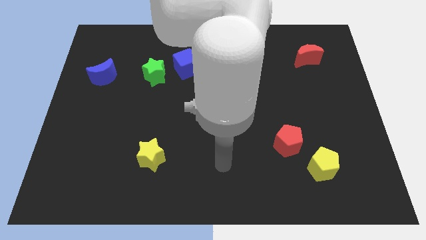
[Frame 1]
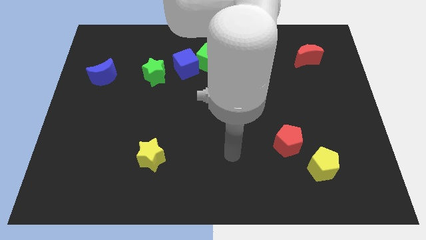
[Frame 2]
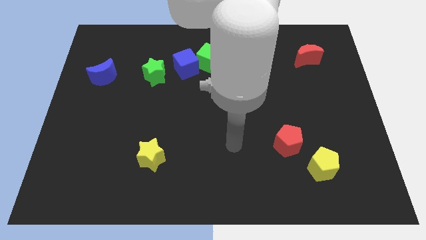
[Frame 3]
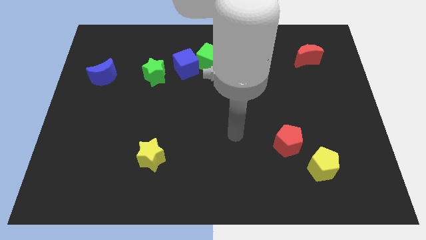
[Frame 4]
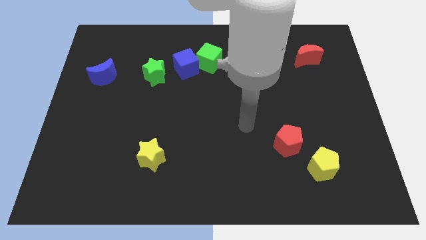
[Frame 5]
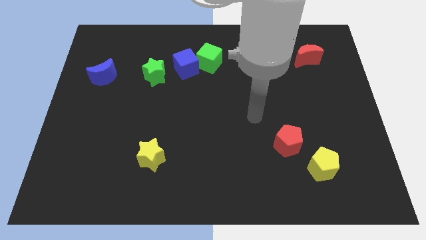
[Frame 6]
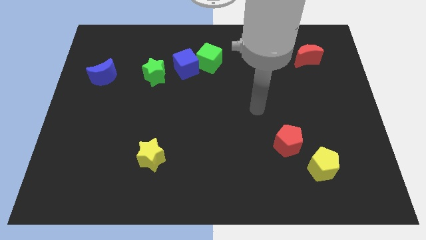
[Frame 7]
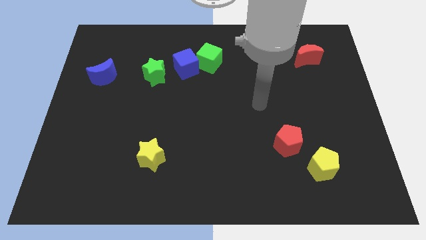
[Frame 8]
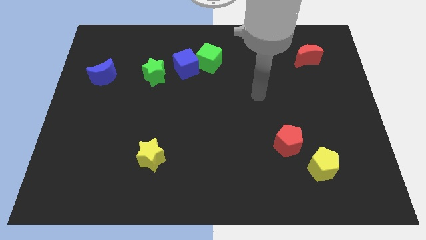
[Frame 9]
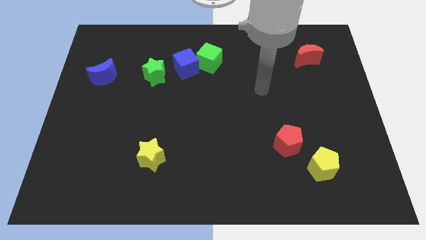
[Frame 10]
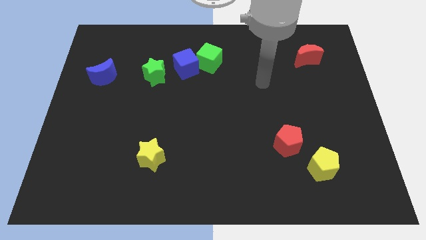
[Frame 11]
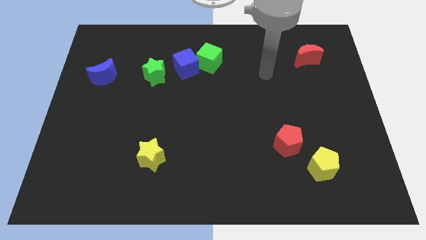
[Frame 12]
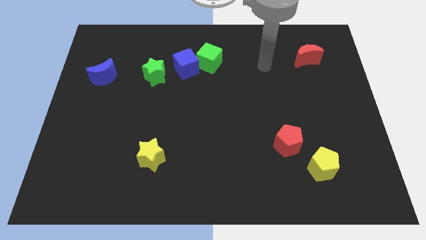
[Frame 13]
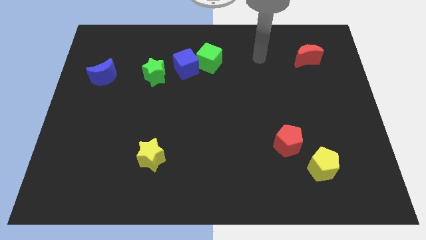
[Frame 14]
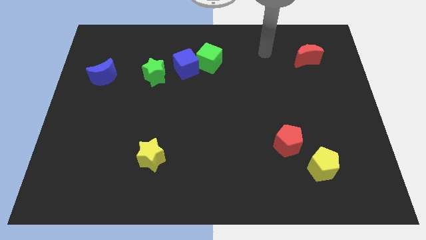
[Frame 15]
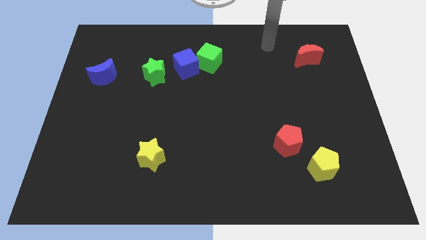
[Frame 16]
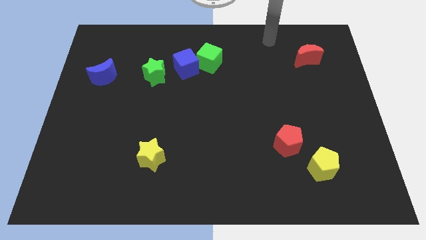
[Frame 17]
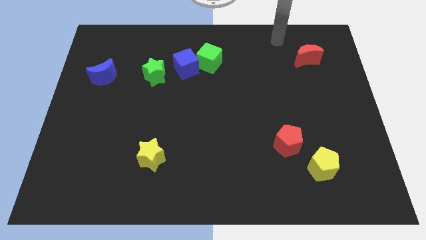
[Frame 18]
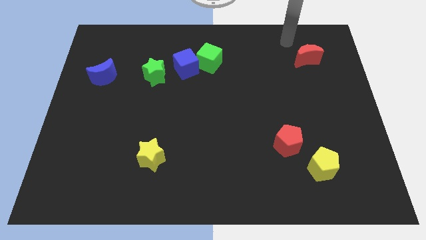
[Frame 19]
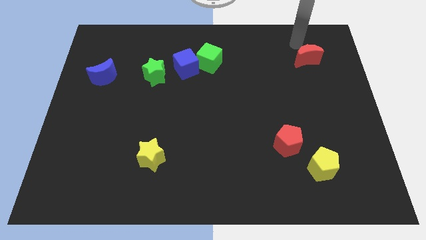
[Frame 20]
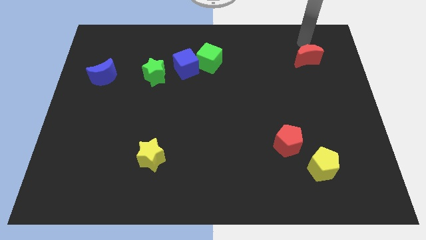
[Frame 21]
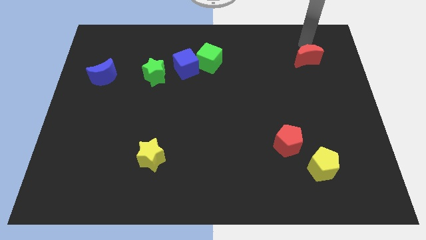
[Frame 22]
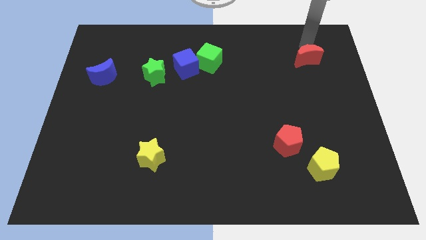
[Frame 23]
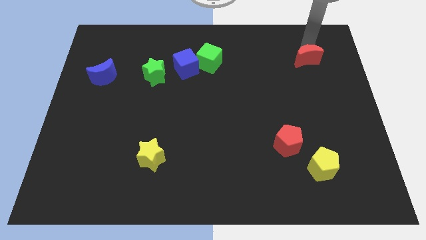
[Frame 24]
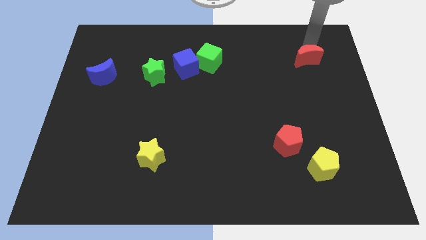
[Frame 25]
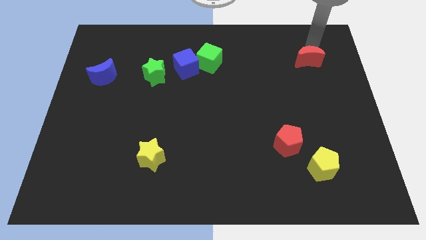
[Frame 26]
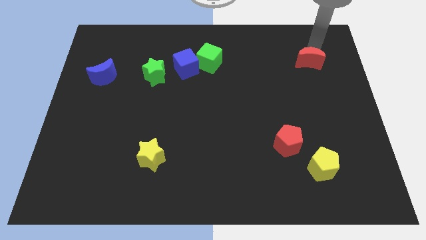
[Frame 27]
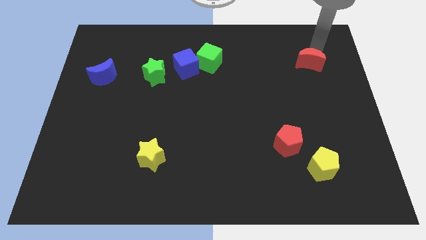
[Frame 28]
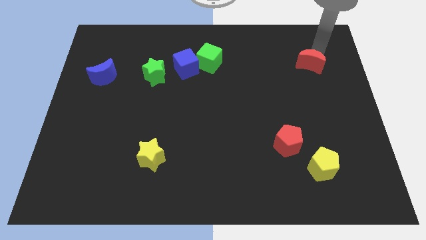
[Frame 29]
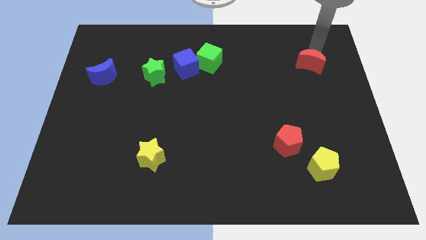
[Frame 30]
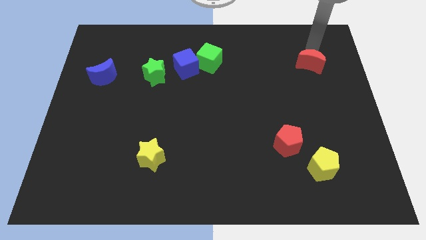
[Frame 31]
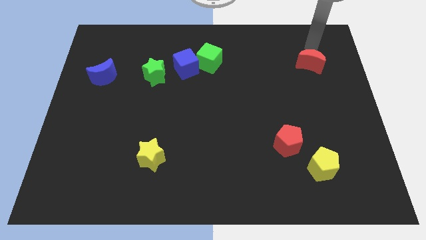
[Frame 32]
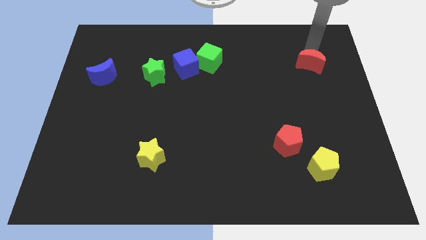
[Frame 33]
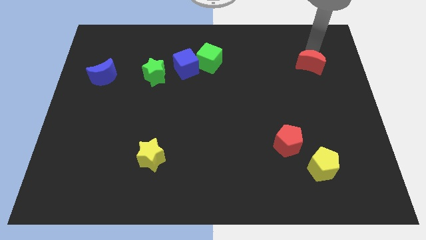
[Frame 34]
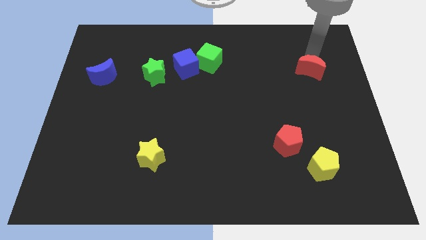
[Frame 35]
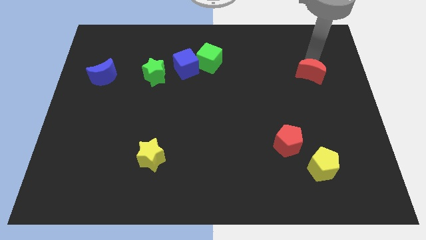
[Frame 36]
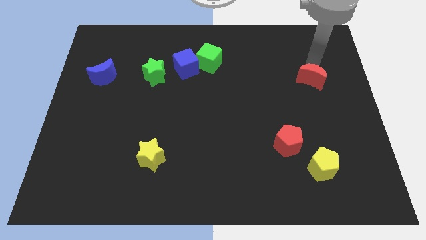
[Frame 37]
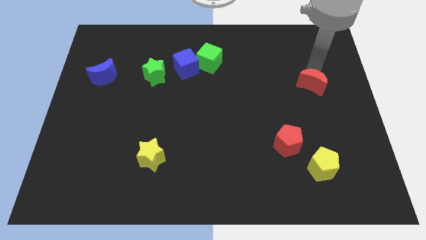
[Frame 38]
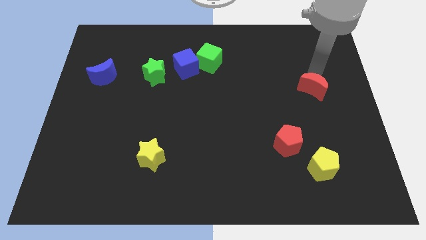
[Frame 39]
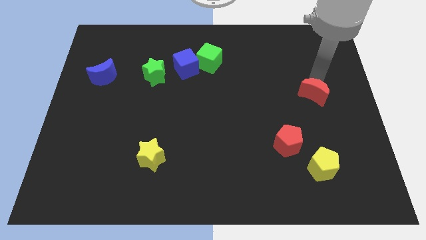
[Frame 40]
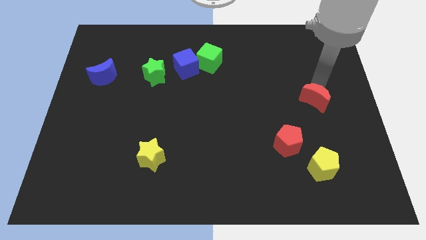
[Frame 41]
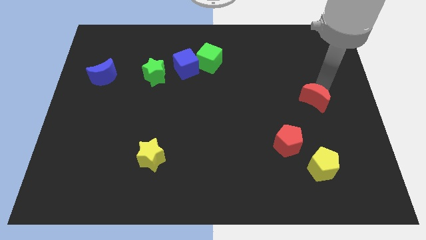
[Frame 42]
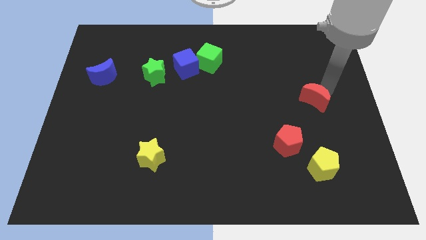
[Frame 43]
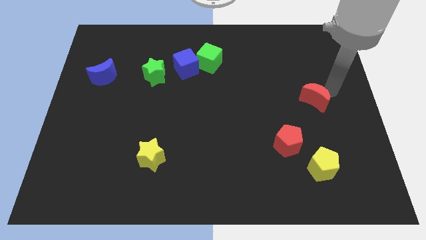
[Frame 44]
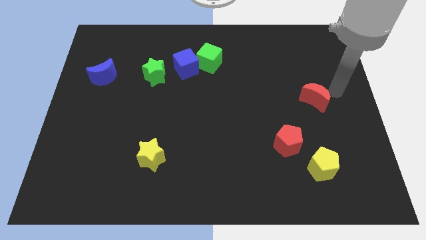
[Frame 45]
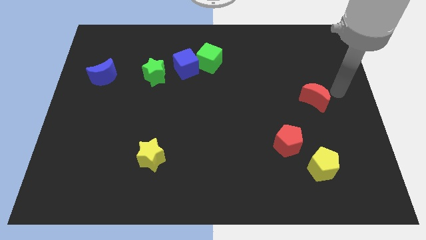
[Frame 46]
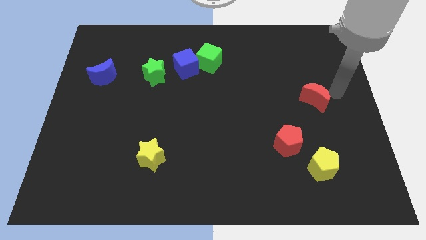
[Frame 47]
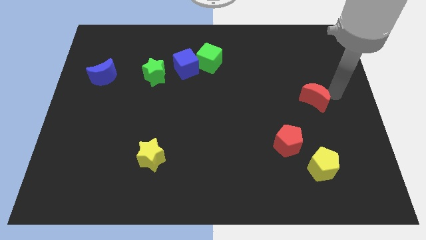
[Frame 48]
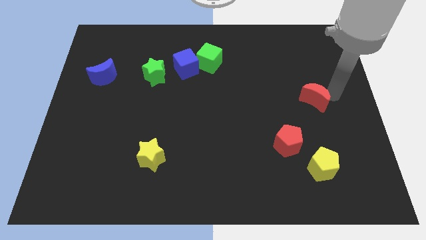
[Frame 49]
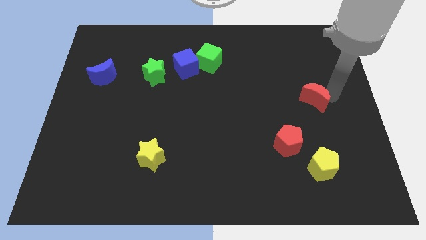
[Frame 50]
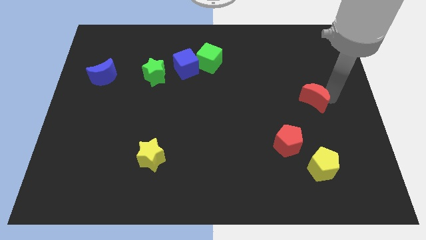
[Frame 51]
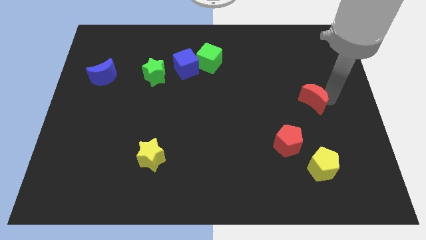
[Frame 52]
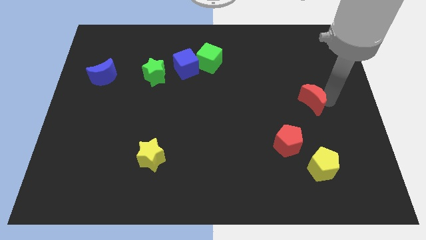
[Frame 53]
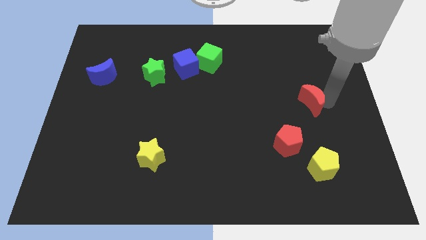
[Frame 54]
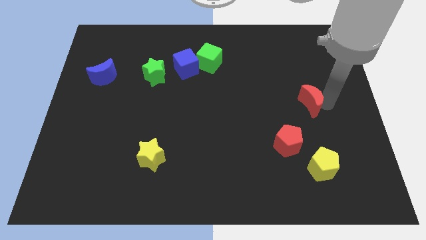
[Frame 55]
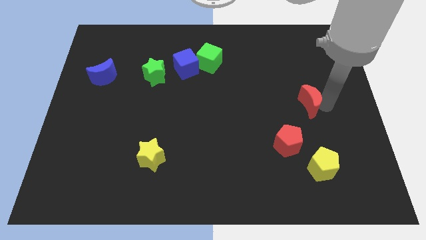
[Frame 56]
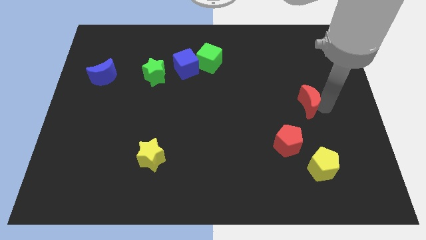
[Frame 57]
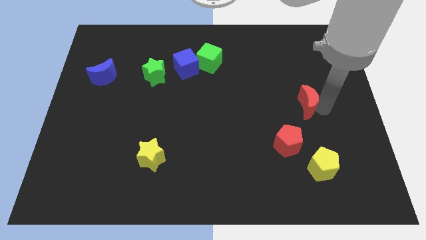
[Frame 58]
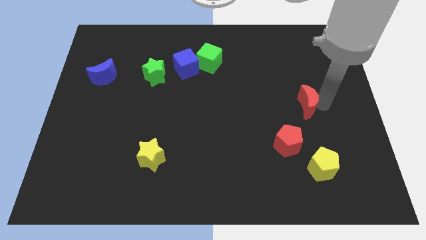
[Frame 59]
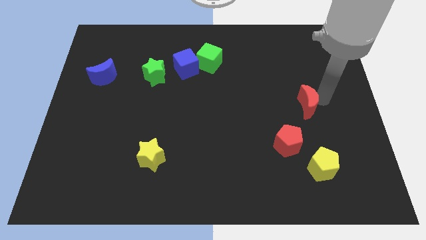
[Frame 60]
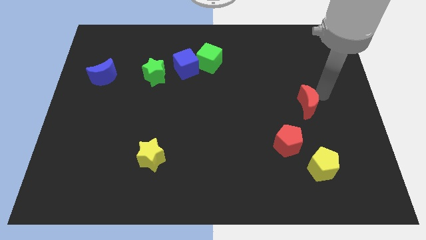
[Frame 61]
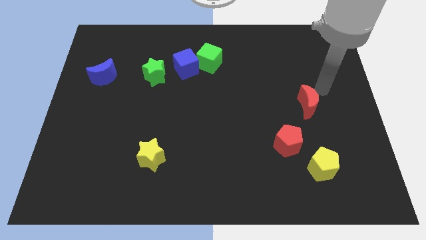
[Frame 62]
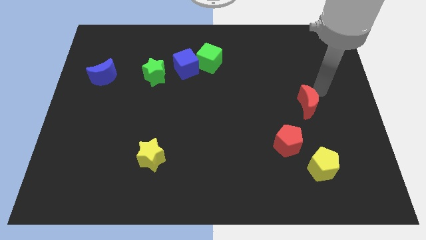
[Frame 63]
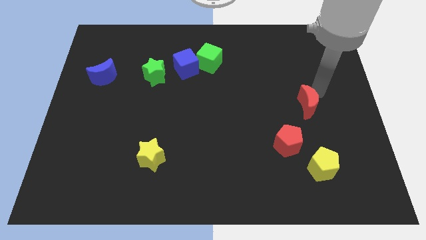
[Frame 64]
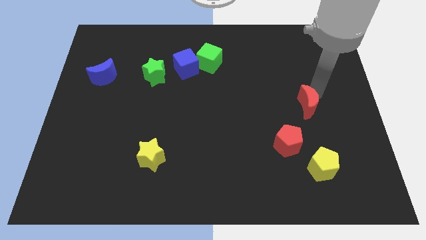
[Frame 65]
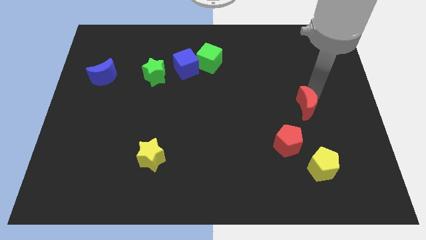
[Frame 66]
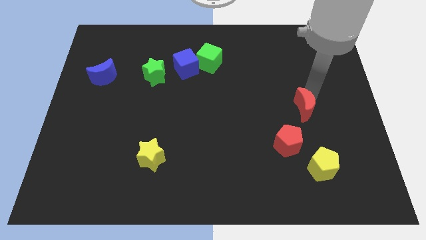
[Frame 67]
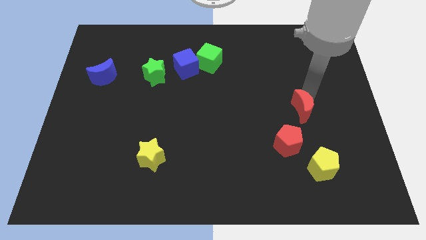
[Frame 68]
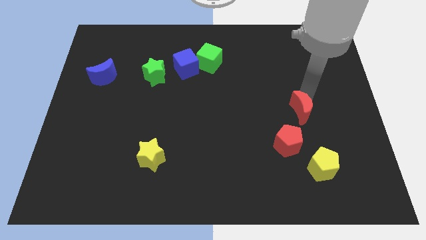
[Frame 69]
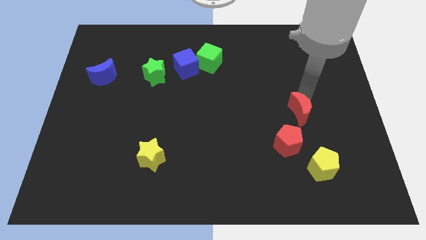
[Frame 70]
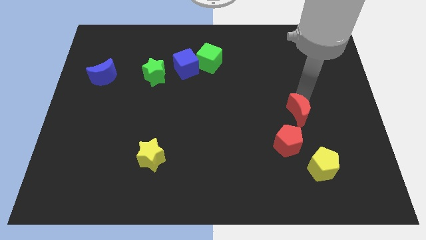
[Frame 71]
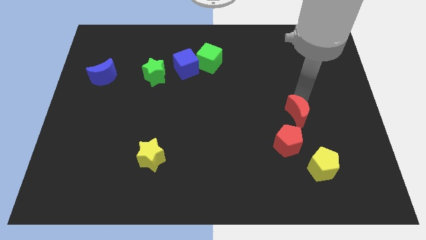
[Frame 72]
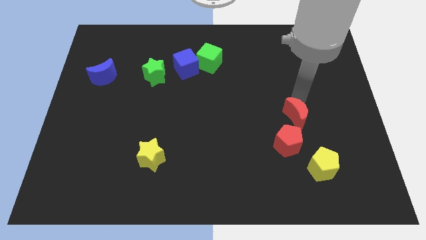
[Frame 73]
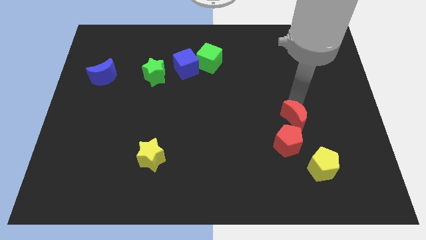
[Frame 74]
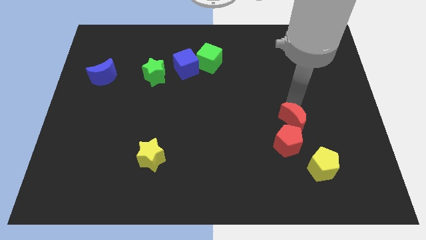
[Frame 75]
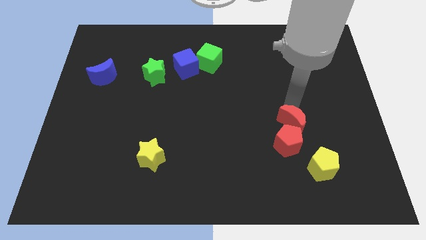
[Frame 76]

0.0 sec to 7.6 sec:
push the red moon close to the red pentagon
